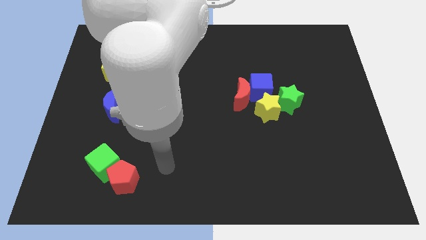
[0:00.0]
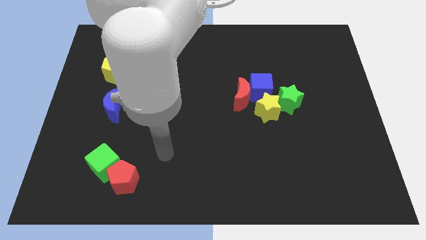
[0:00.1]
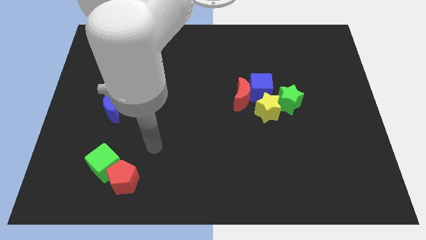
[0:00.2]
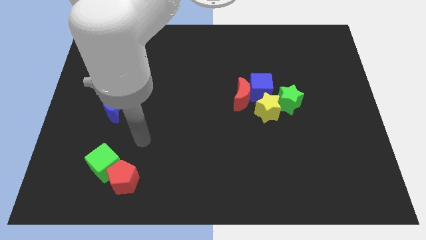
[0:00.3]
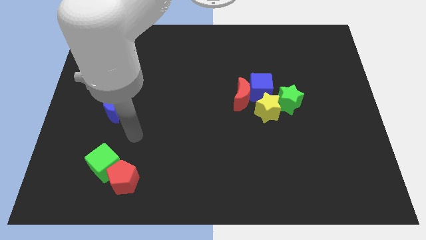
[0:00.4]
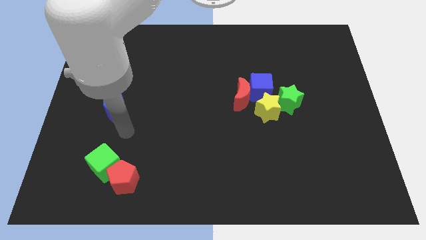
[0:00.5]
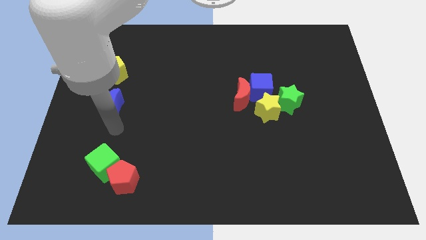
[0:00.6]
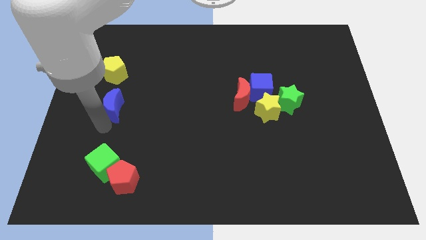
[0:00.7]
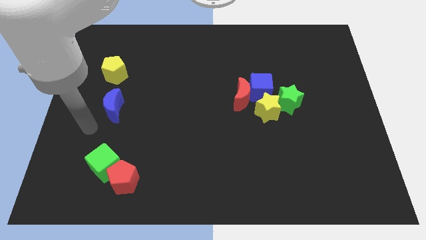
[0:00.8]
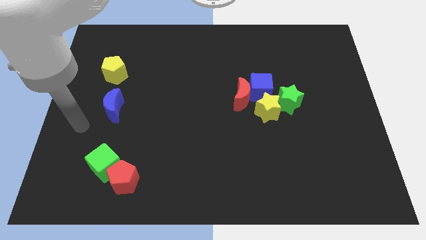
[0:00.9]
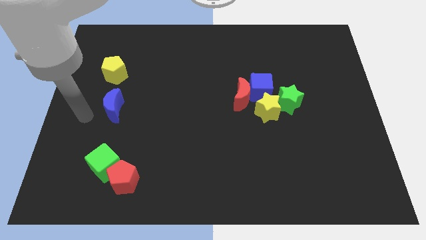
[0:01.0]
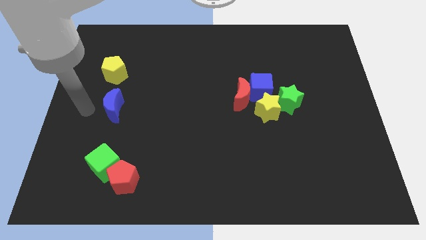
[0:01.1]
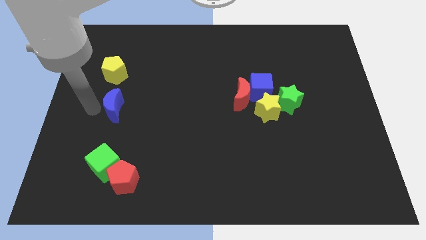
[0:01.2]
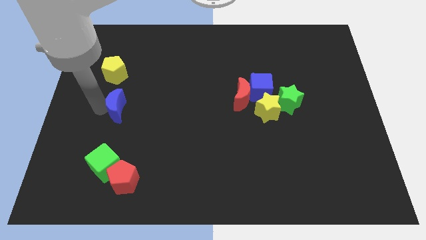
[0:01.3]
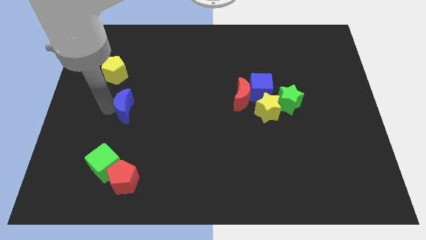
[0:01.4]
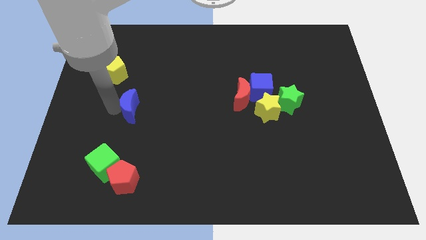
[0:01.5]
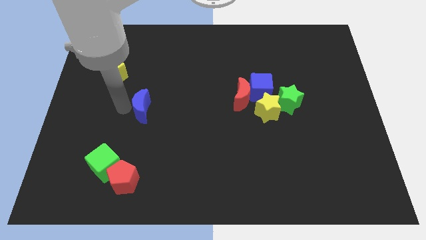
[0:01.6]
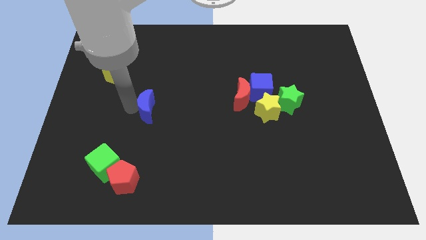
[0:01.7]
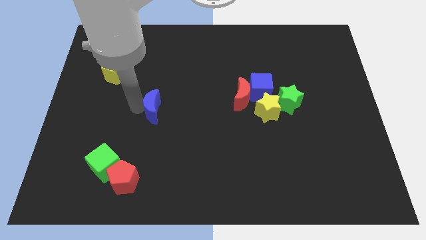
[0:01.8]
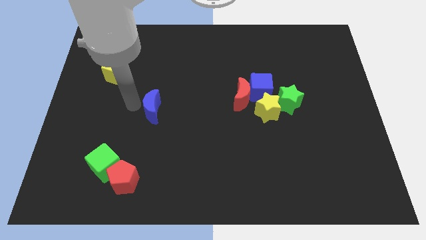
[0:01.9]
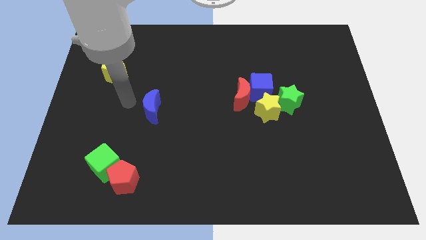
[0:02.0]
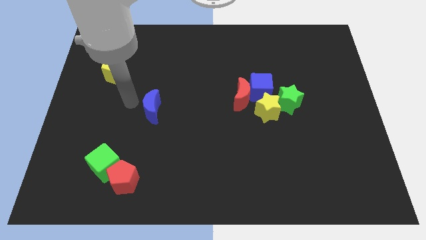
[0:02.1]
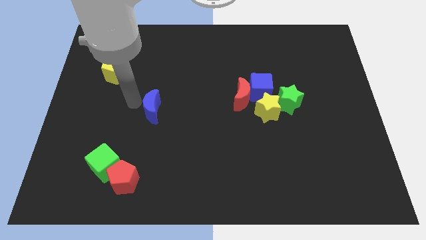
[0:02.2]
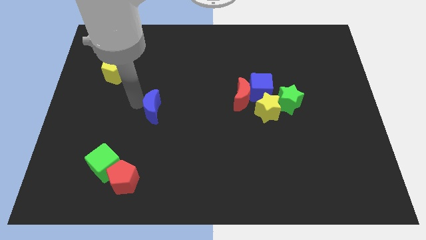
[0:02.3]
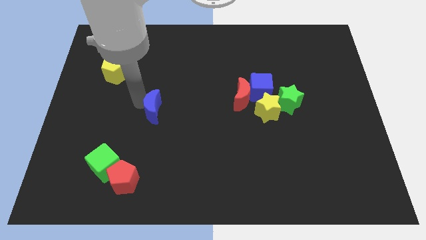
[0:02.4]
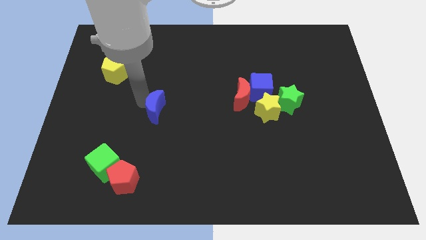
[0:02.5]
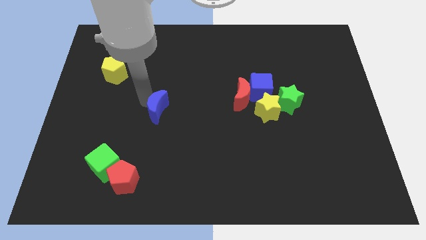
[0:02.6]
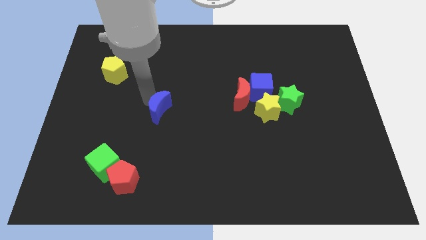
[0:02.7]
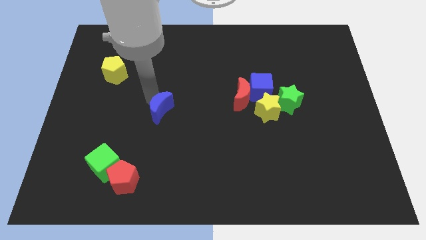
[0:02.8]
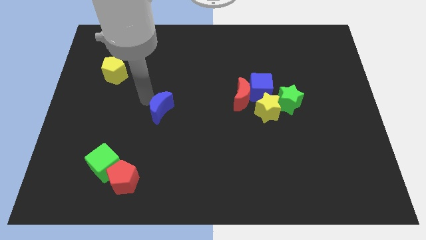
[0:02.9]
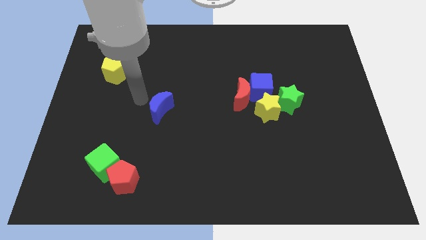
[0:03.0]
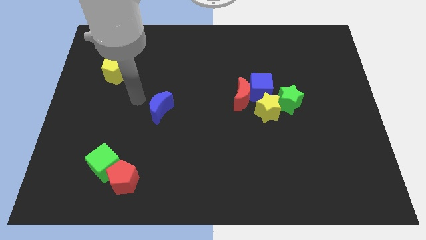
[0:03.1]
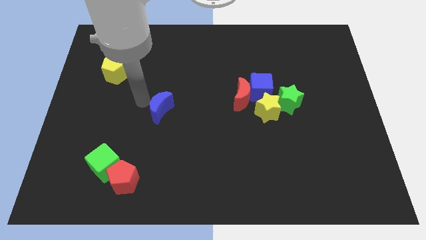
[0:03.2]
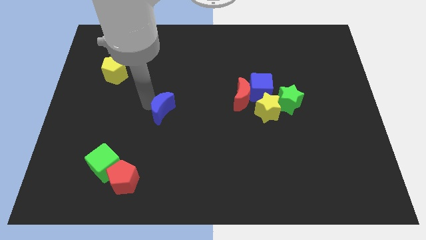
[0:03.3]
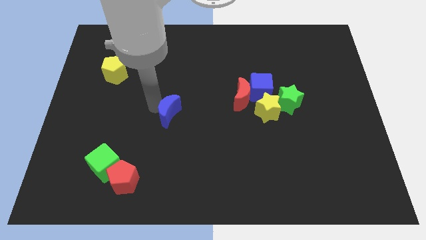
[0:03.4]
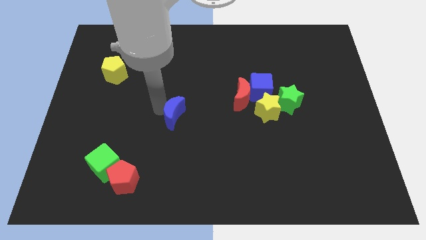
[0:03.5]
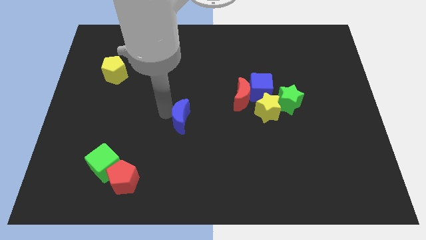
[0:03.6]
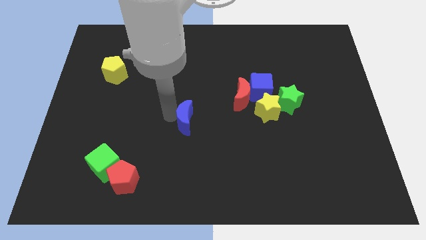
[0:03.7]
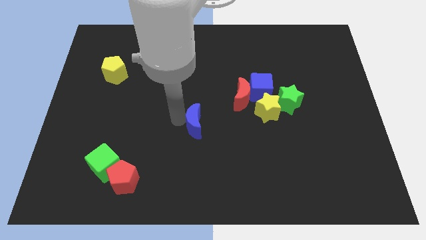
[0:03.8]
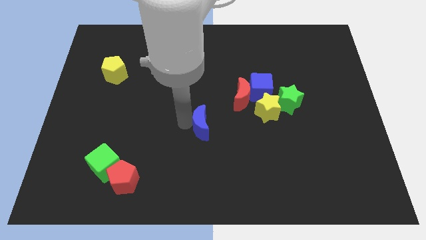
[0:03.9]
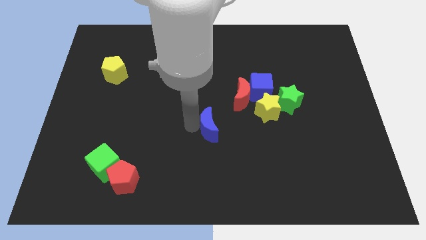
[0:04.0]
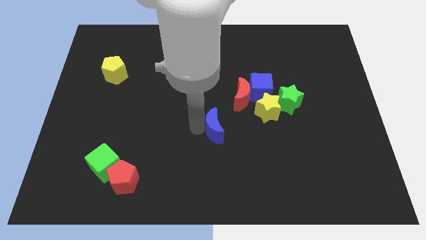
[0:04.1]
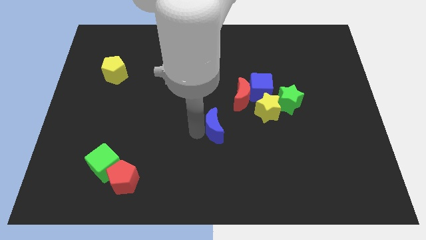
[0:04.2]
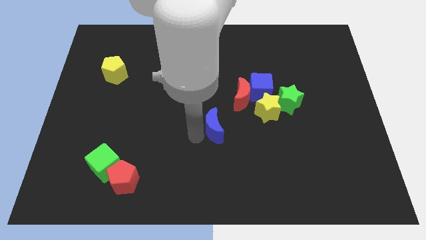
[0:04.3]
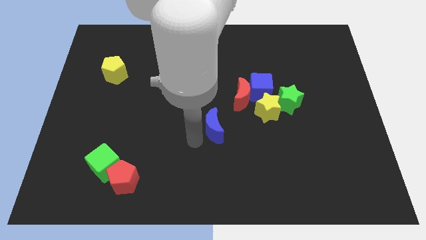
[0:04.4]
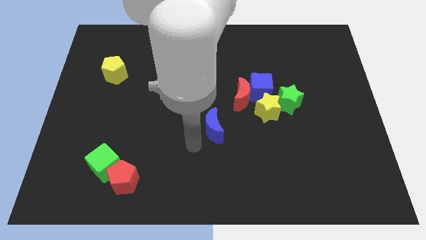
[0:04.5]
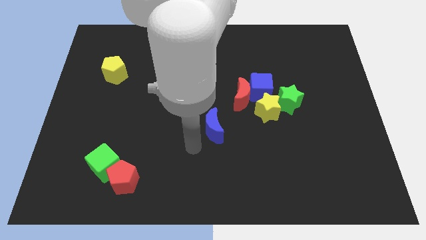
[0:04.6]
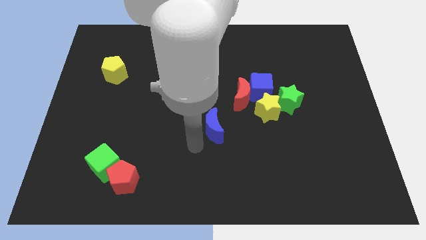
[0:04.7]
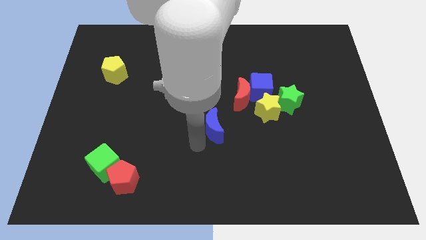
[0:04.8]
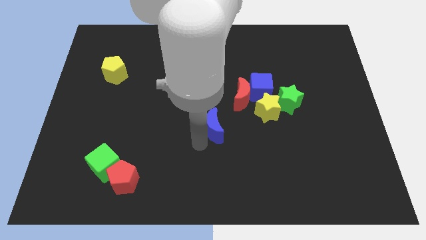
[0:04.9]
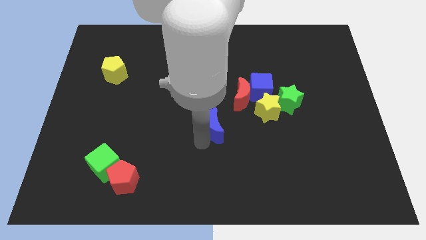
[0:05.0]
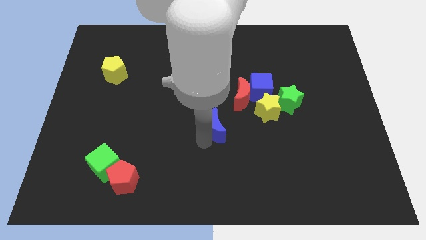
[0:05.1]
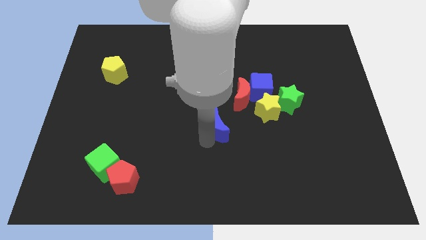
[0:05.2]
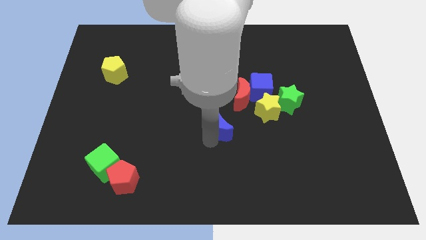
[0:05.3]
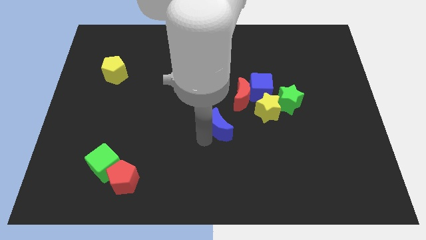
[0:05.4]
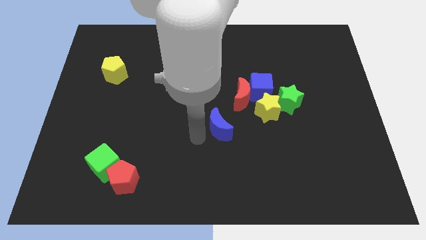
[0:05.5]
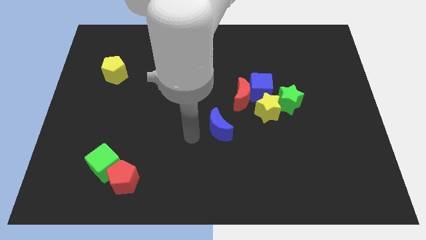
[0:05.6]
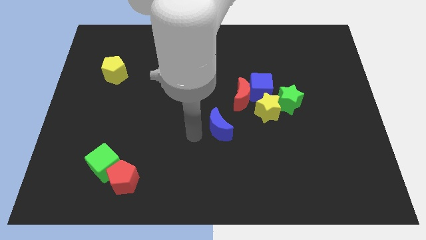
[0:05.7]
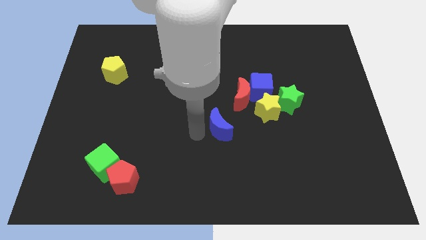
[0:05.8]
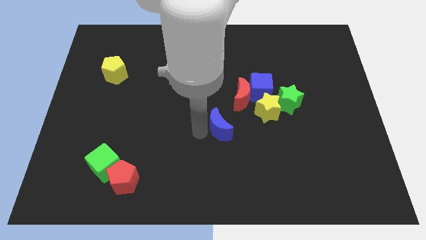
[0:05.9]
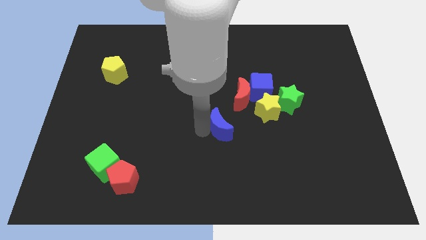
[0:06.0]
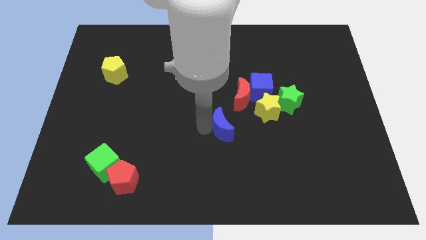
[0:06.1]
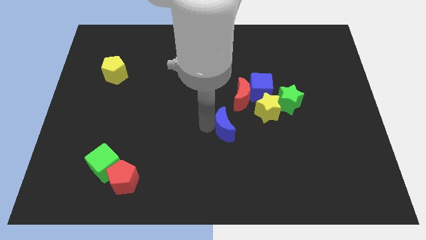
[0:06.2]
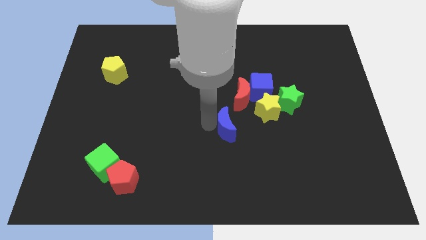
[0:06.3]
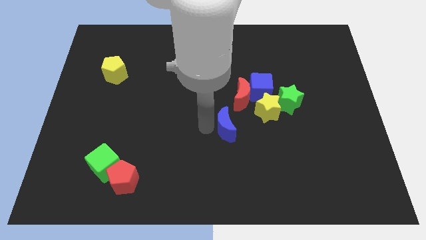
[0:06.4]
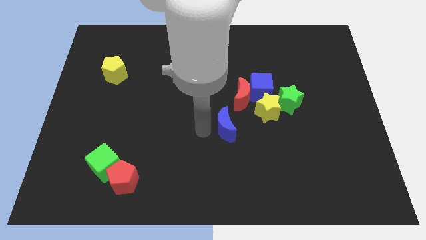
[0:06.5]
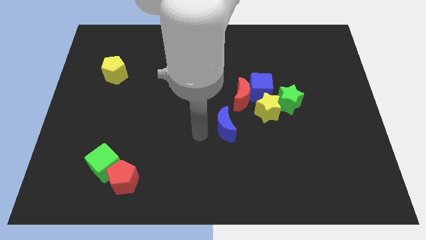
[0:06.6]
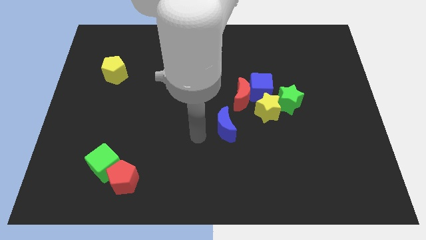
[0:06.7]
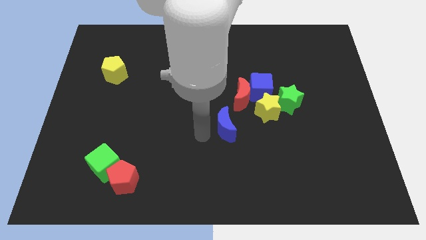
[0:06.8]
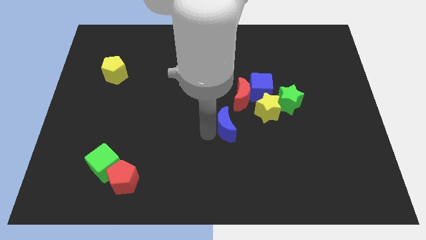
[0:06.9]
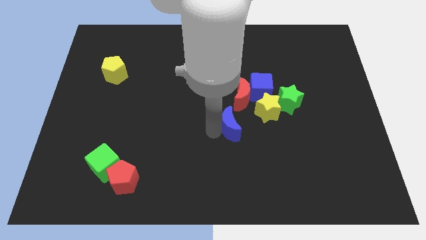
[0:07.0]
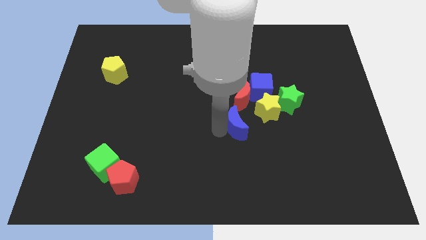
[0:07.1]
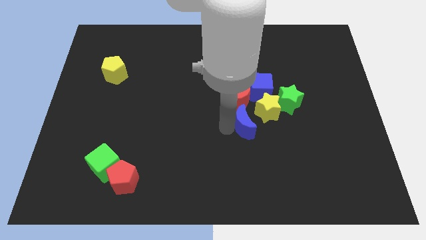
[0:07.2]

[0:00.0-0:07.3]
move the blue moon to the bottom of the blue cube
